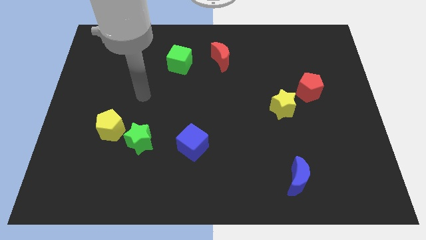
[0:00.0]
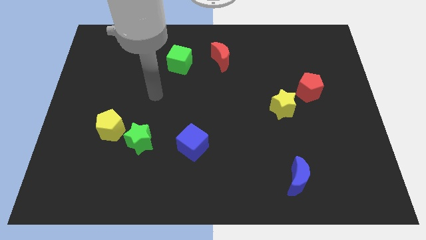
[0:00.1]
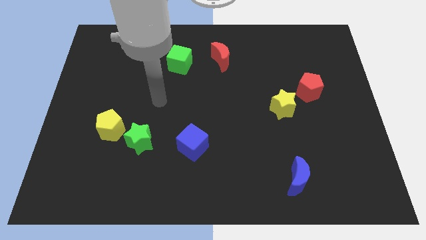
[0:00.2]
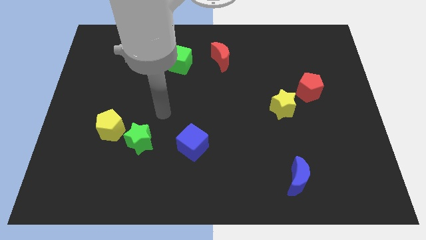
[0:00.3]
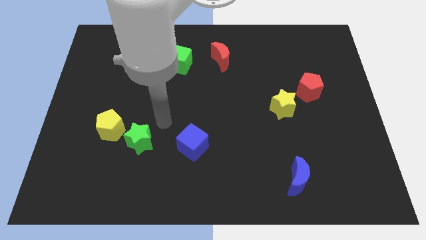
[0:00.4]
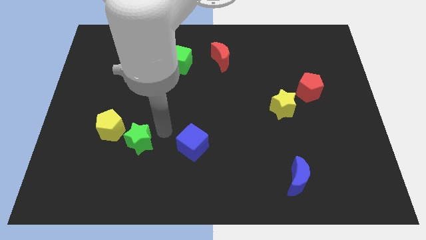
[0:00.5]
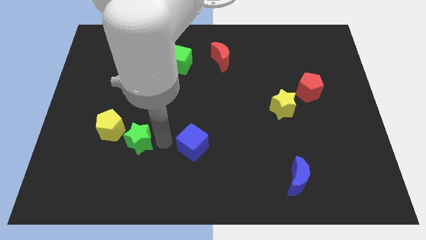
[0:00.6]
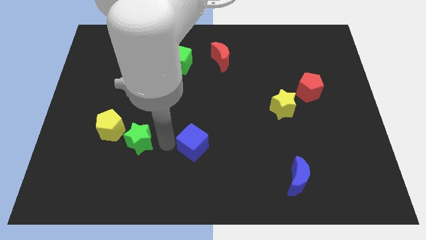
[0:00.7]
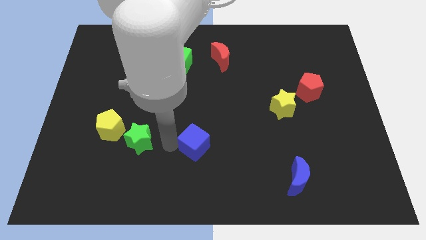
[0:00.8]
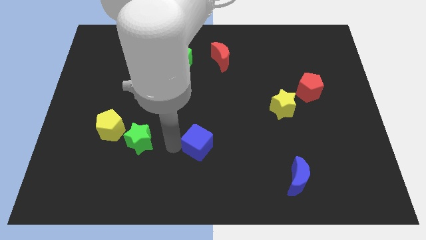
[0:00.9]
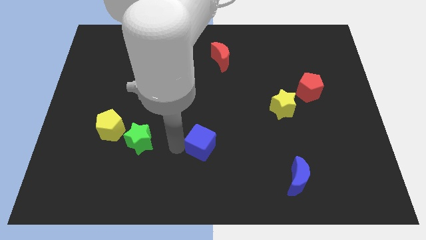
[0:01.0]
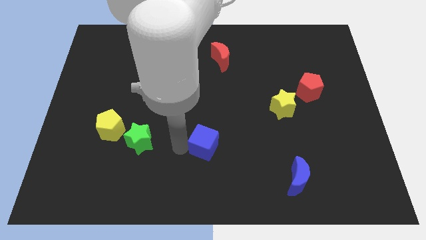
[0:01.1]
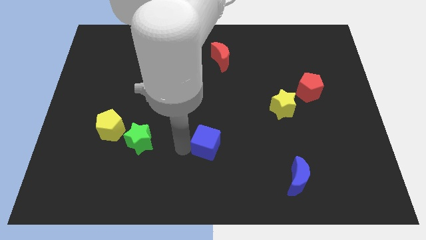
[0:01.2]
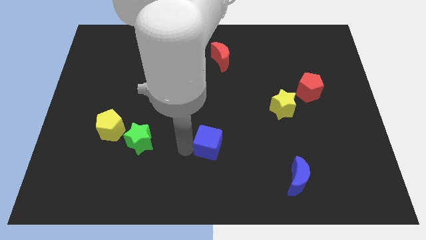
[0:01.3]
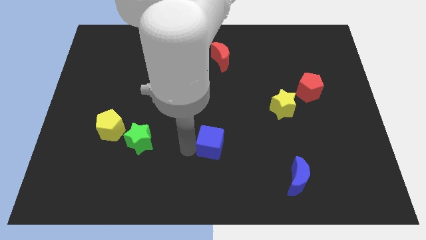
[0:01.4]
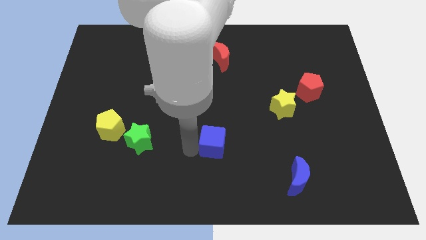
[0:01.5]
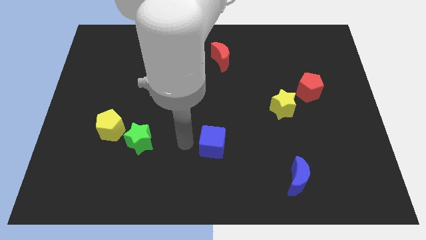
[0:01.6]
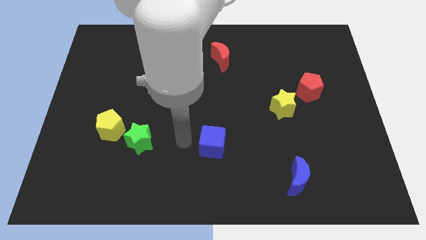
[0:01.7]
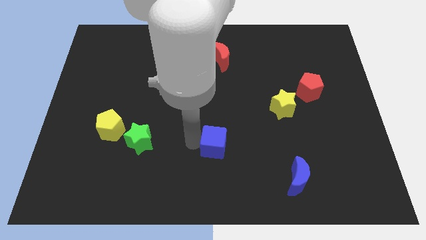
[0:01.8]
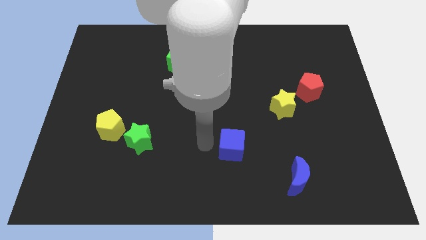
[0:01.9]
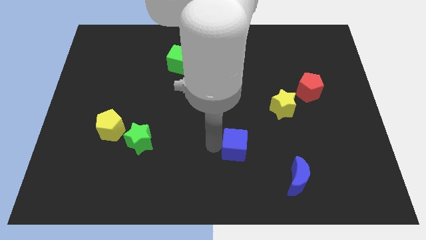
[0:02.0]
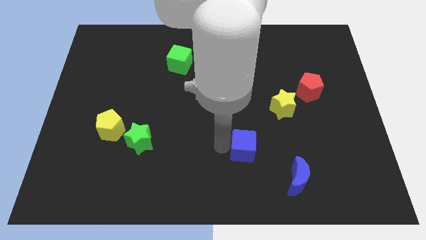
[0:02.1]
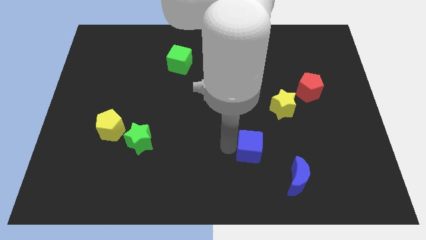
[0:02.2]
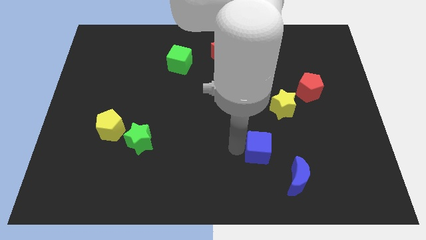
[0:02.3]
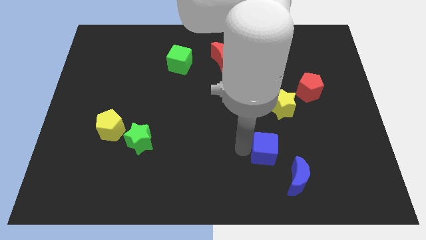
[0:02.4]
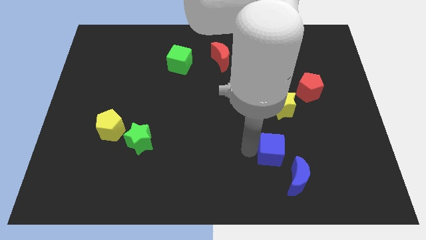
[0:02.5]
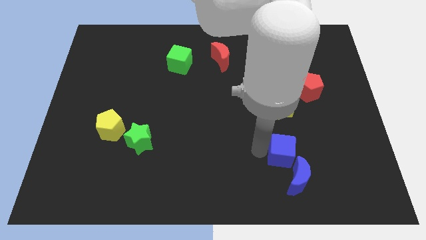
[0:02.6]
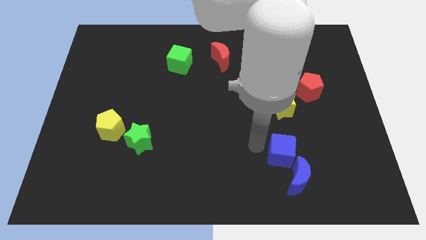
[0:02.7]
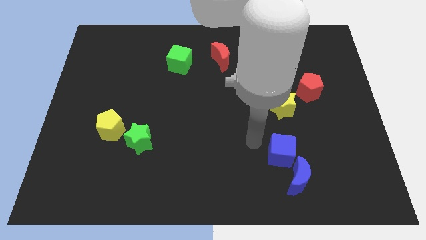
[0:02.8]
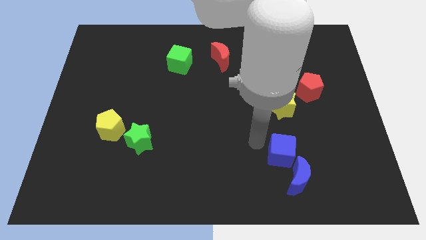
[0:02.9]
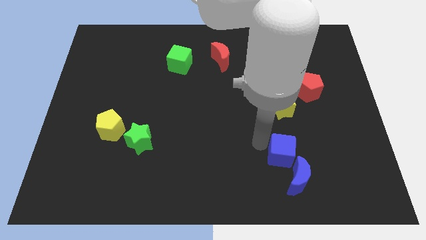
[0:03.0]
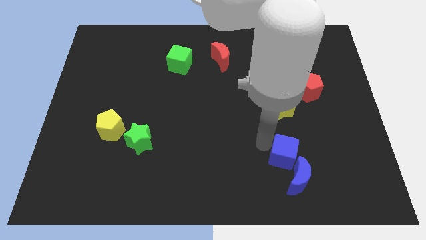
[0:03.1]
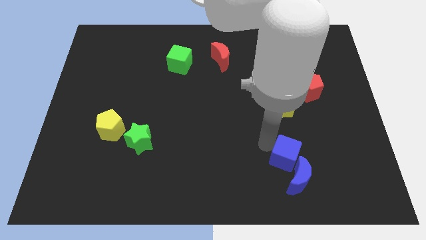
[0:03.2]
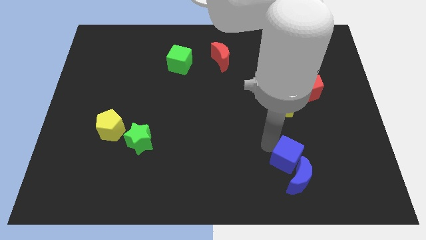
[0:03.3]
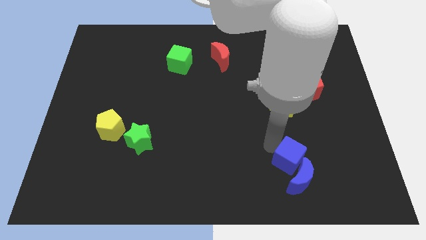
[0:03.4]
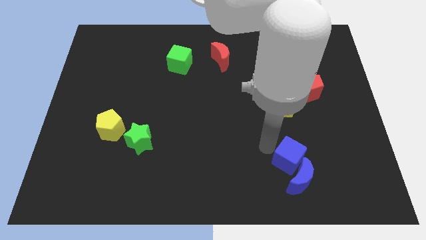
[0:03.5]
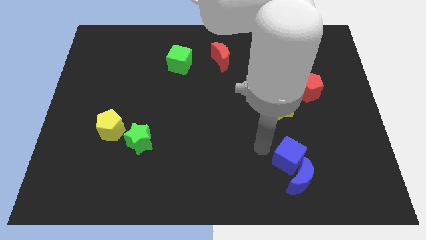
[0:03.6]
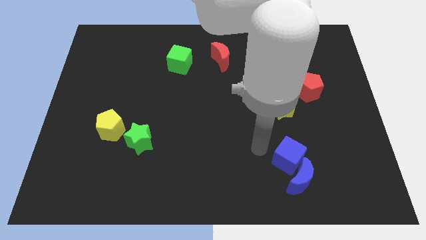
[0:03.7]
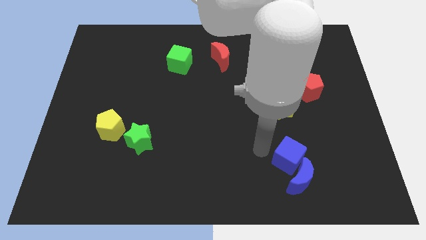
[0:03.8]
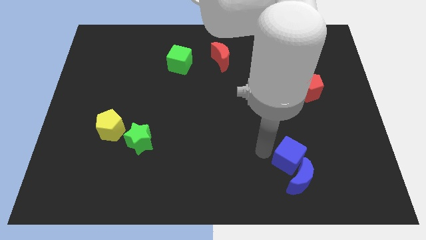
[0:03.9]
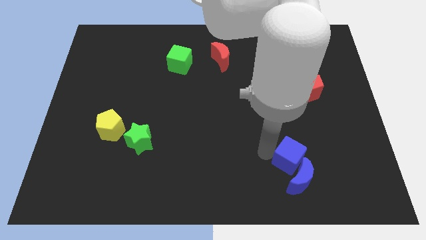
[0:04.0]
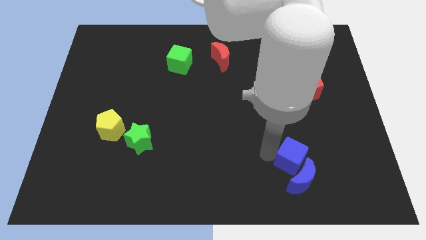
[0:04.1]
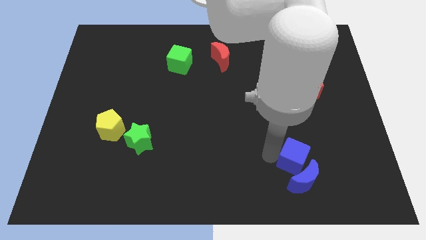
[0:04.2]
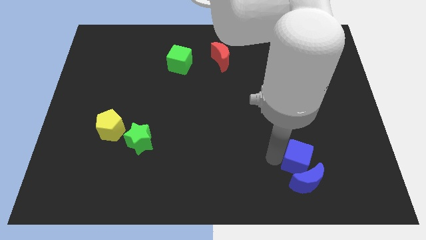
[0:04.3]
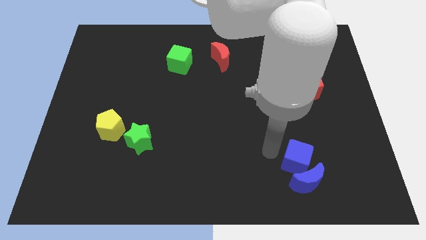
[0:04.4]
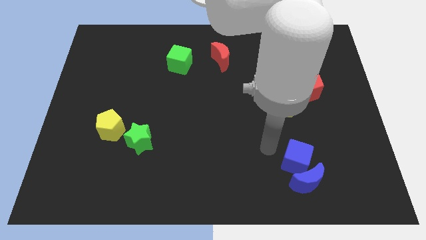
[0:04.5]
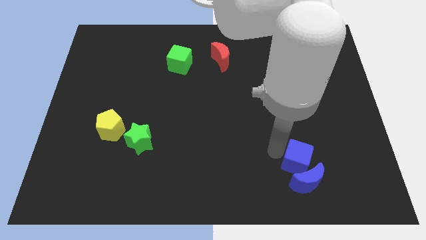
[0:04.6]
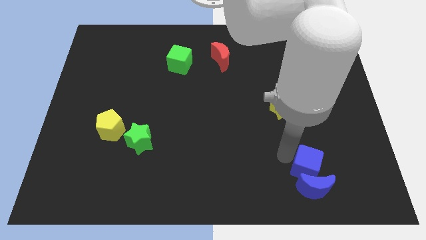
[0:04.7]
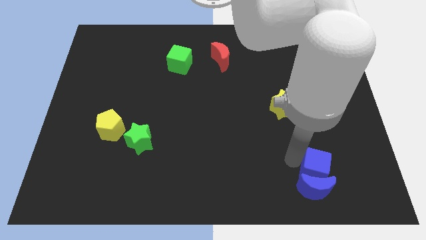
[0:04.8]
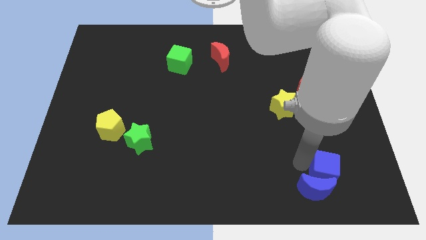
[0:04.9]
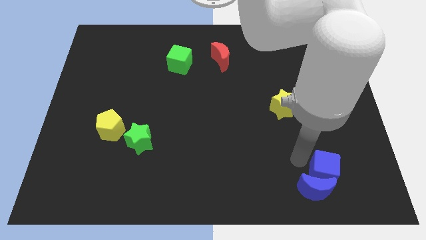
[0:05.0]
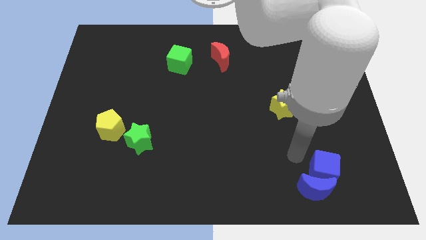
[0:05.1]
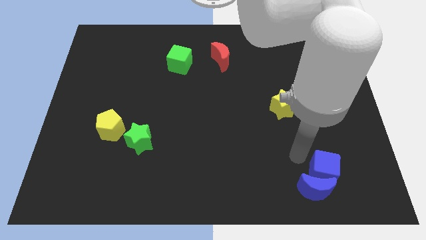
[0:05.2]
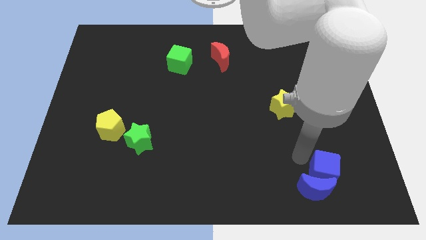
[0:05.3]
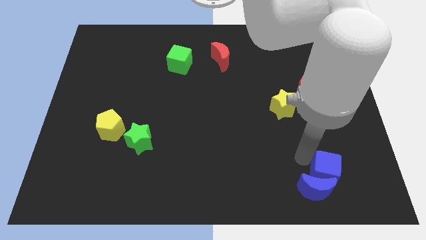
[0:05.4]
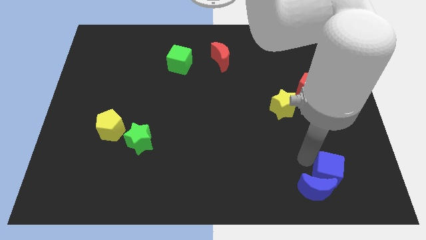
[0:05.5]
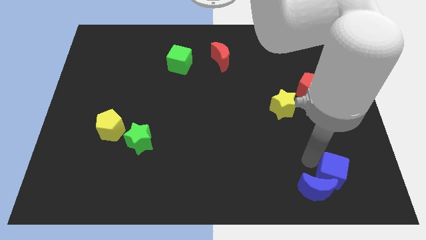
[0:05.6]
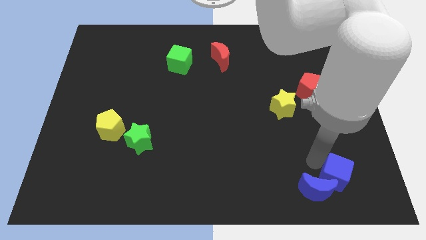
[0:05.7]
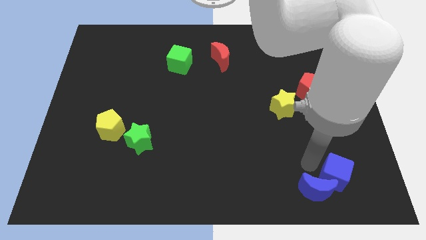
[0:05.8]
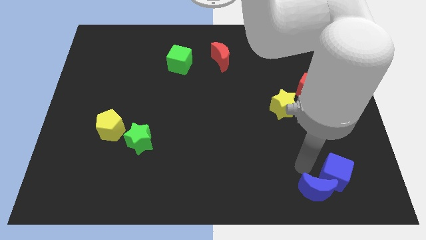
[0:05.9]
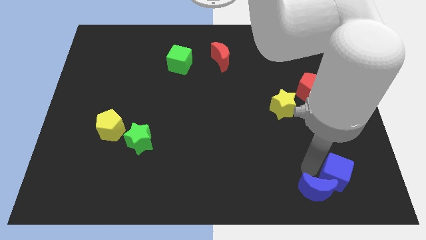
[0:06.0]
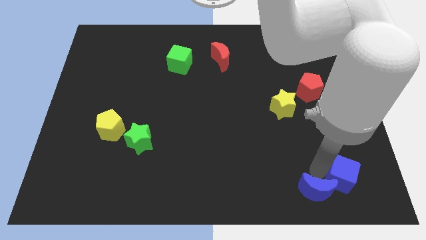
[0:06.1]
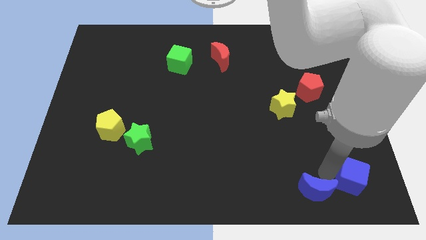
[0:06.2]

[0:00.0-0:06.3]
move the blue cube to the bottom right of the board
